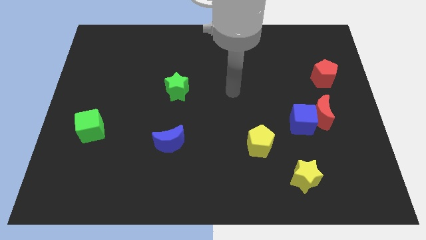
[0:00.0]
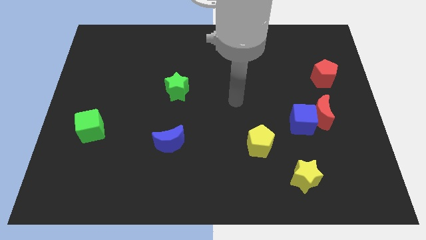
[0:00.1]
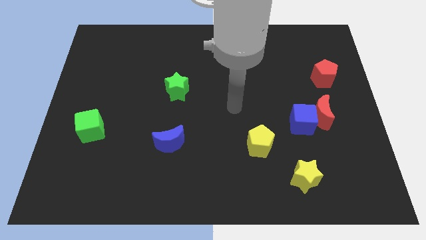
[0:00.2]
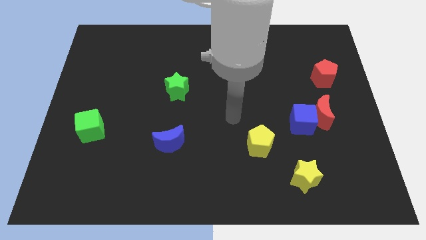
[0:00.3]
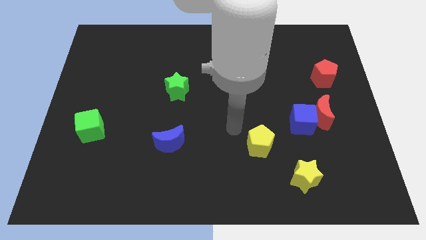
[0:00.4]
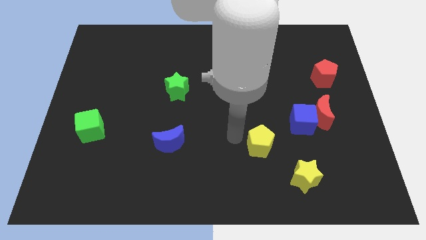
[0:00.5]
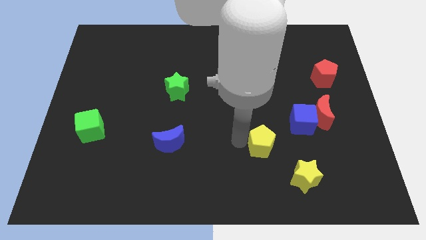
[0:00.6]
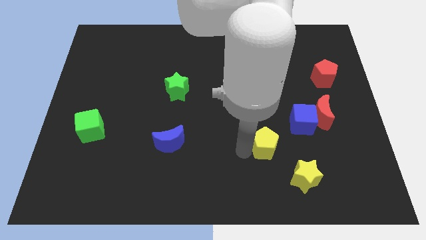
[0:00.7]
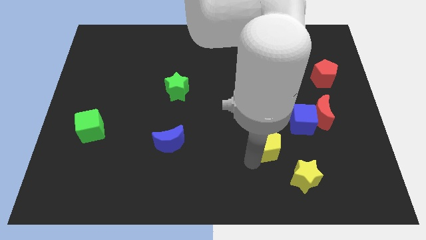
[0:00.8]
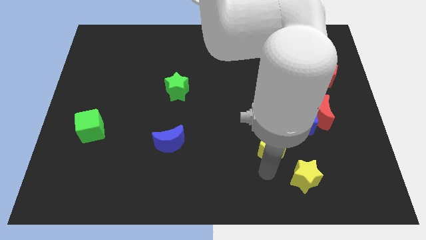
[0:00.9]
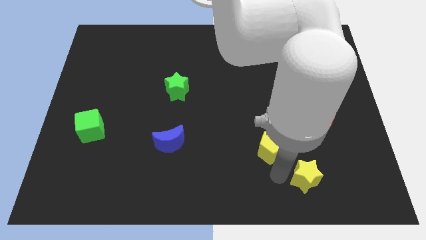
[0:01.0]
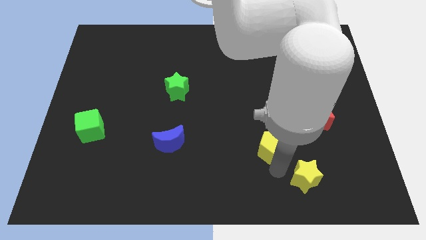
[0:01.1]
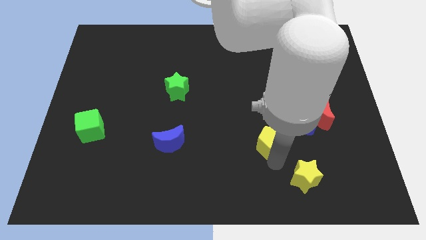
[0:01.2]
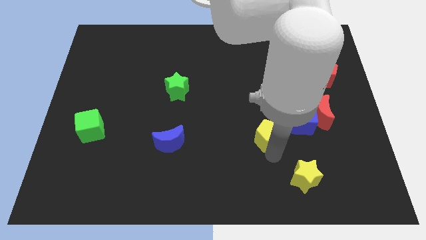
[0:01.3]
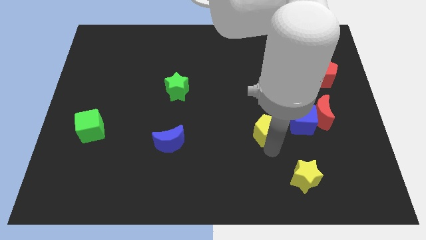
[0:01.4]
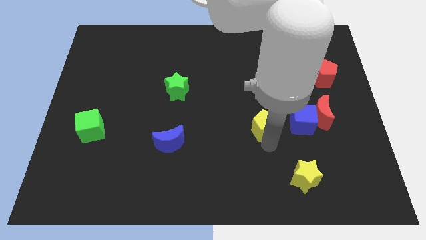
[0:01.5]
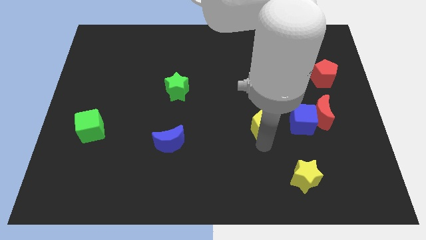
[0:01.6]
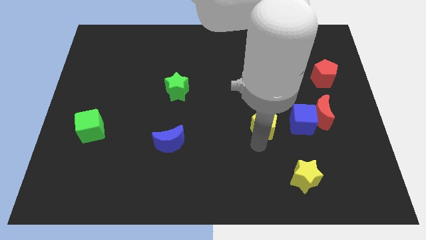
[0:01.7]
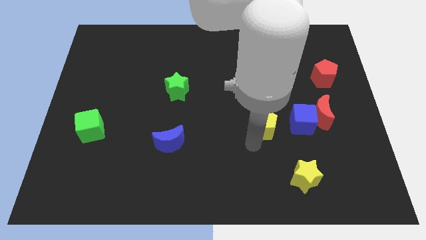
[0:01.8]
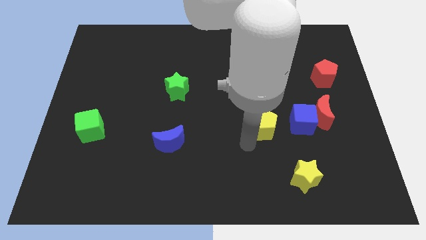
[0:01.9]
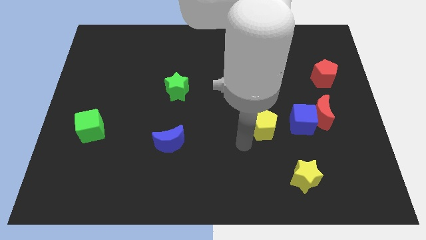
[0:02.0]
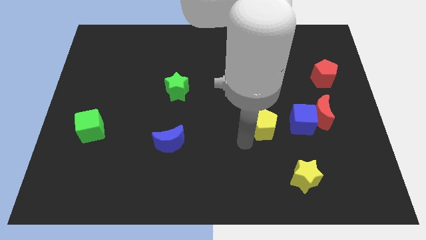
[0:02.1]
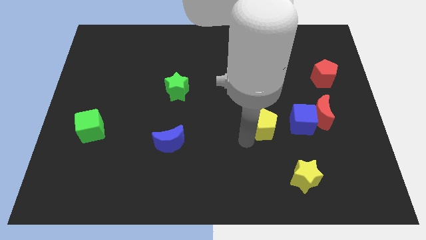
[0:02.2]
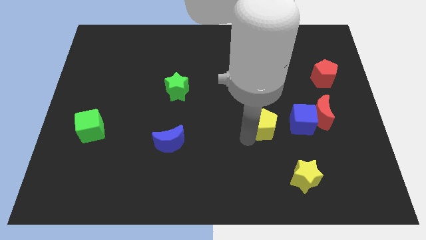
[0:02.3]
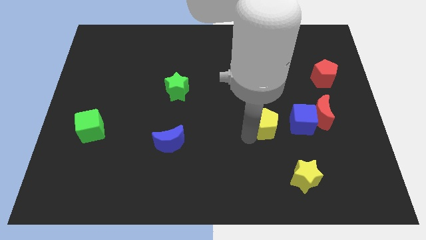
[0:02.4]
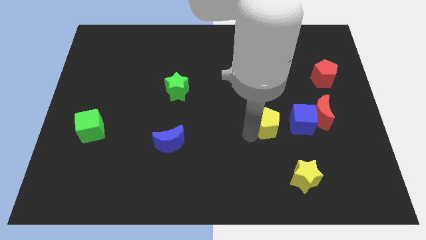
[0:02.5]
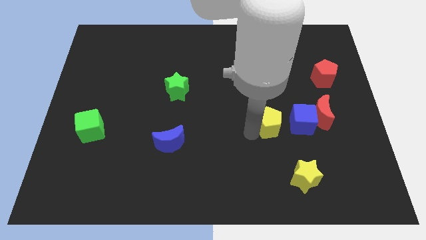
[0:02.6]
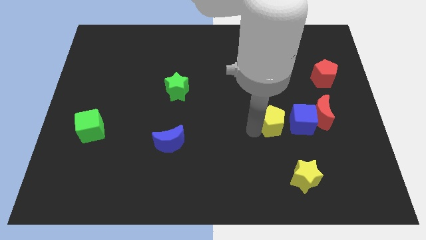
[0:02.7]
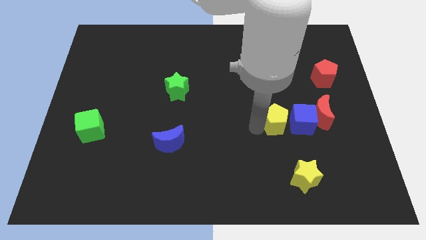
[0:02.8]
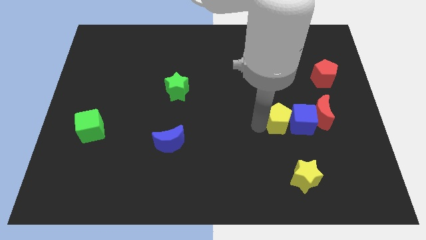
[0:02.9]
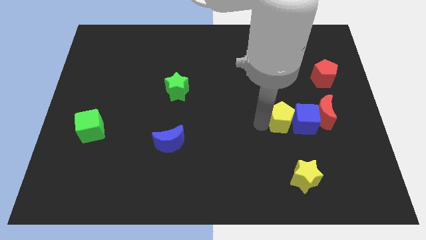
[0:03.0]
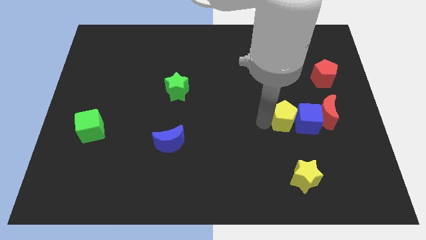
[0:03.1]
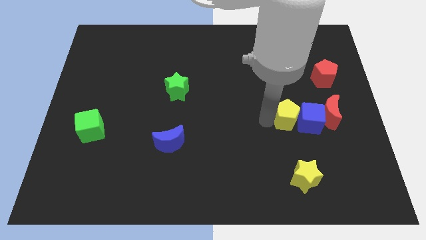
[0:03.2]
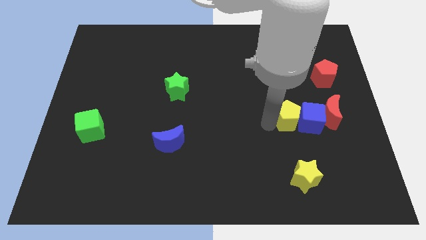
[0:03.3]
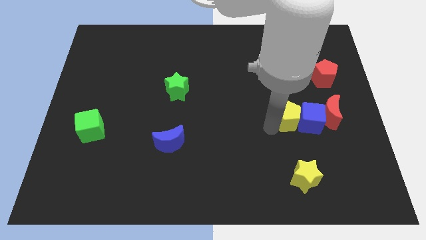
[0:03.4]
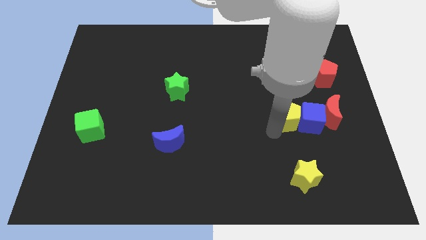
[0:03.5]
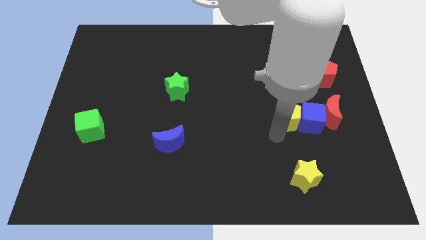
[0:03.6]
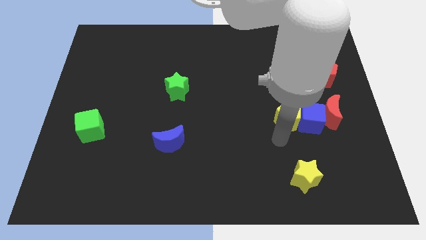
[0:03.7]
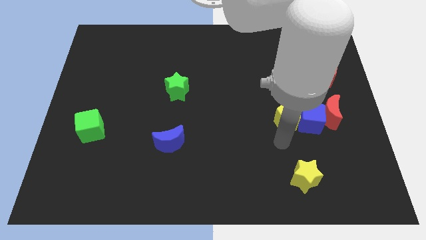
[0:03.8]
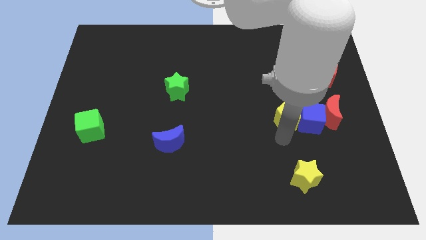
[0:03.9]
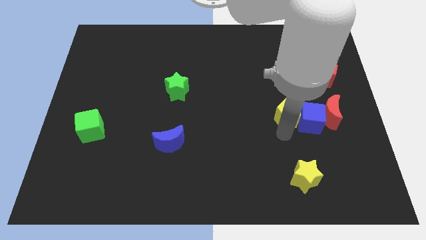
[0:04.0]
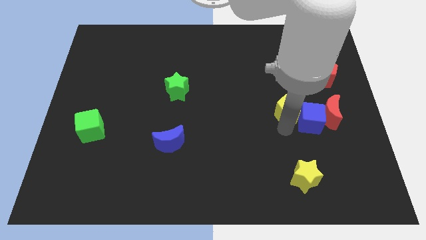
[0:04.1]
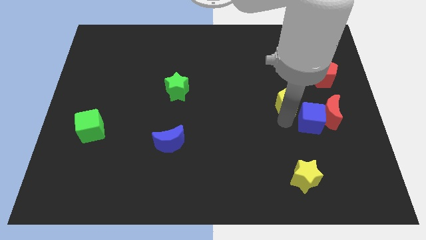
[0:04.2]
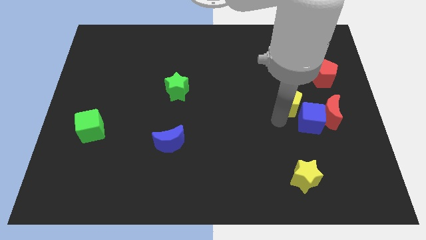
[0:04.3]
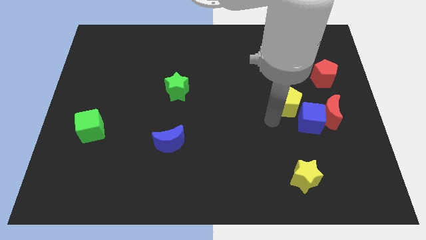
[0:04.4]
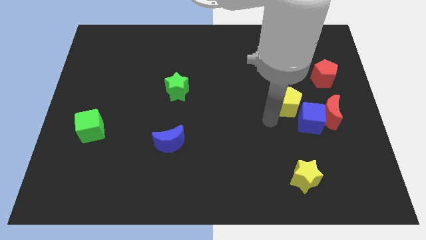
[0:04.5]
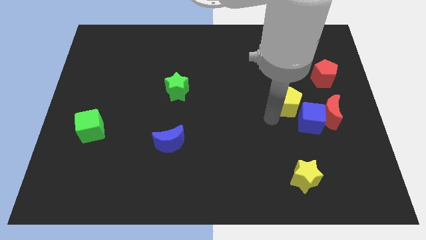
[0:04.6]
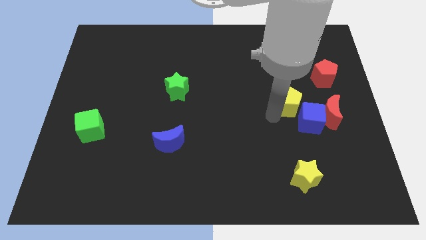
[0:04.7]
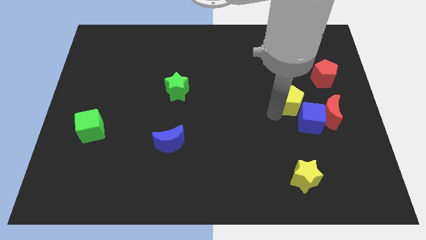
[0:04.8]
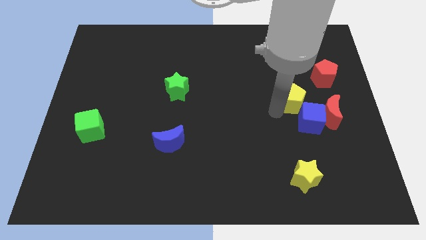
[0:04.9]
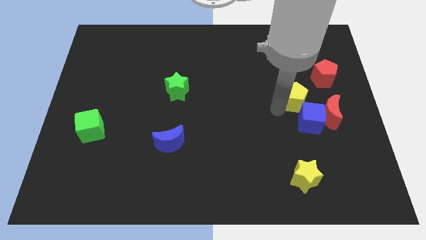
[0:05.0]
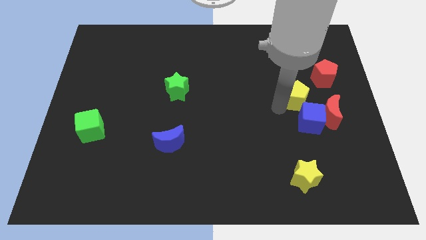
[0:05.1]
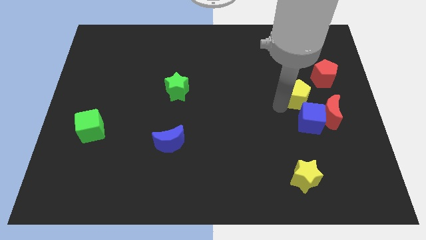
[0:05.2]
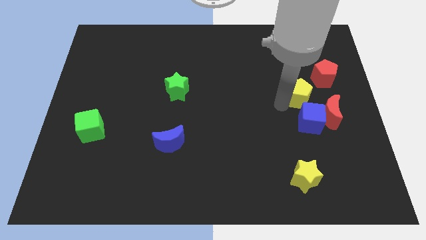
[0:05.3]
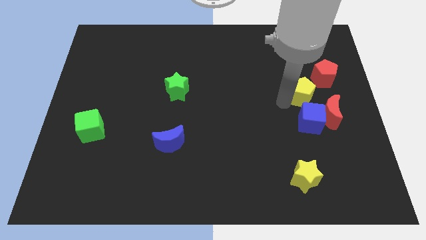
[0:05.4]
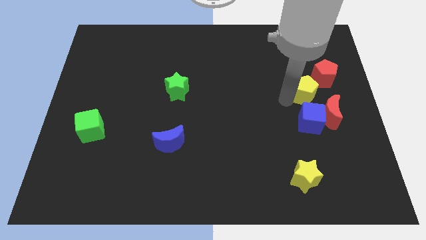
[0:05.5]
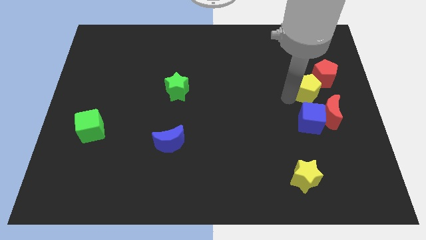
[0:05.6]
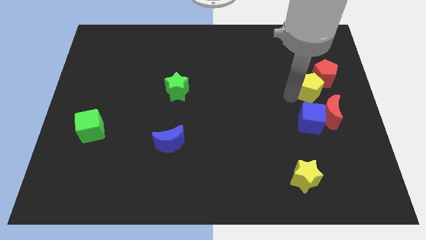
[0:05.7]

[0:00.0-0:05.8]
push the yellow pentagon towards the red pentagon
